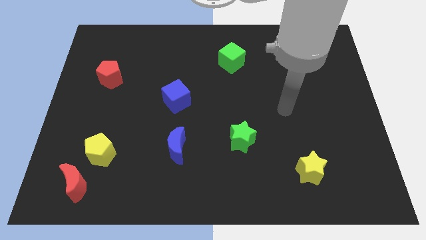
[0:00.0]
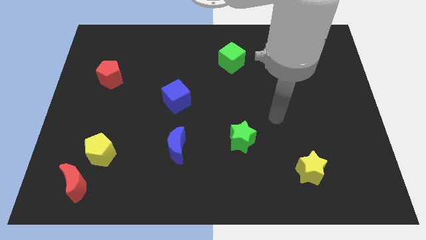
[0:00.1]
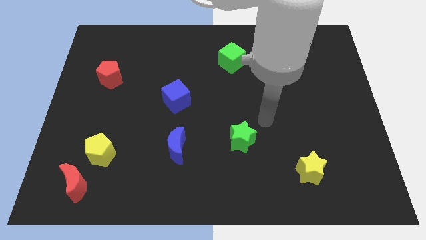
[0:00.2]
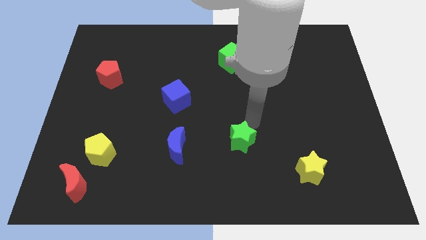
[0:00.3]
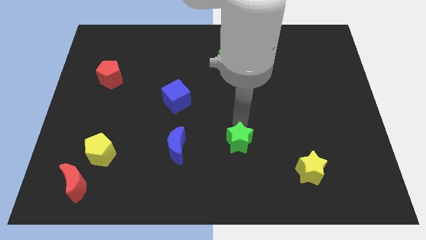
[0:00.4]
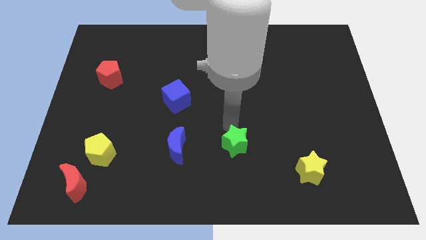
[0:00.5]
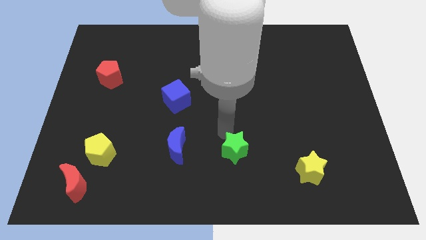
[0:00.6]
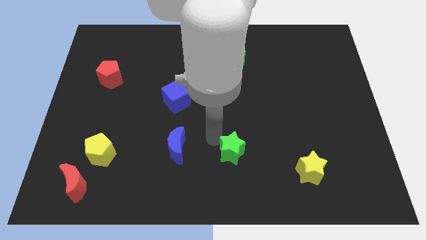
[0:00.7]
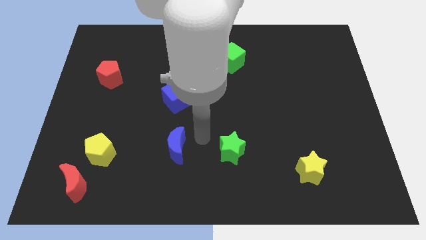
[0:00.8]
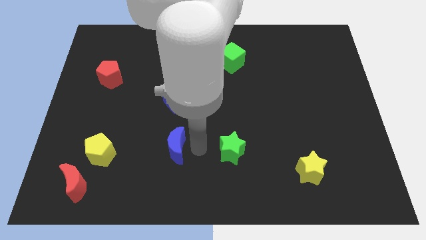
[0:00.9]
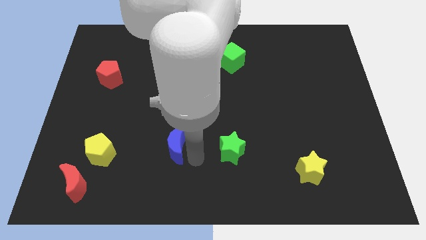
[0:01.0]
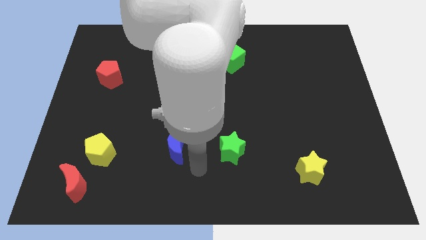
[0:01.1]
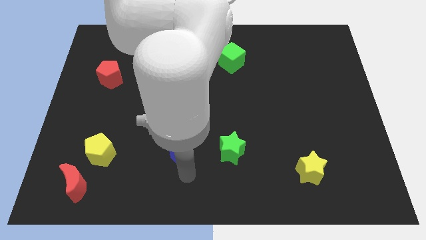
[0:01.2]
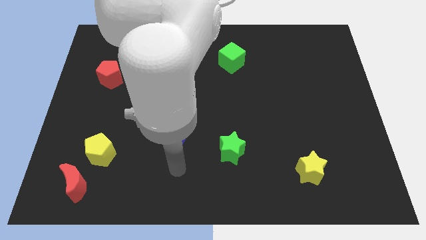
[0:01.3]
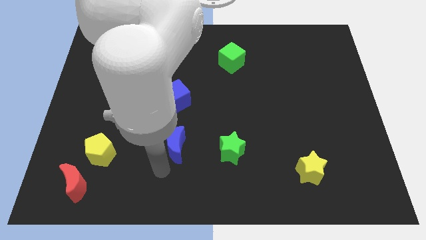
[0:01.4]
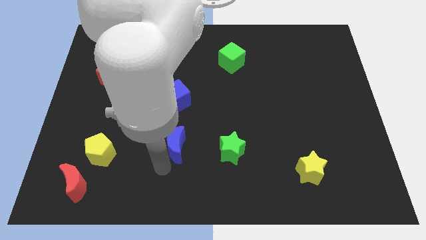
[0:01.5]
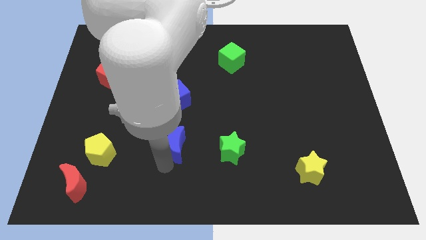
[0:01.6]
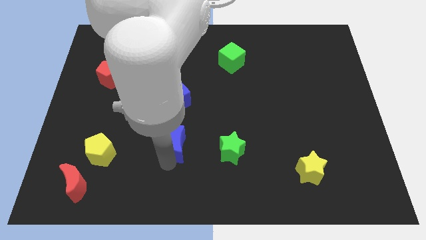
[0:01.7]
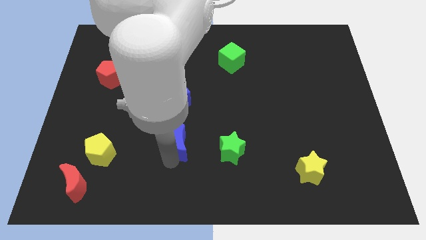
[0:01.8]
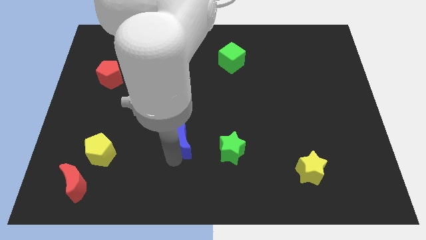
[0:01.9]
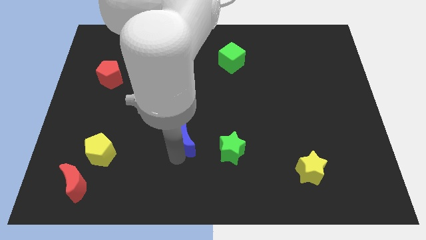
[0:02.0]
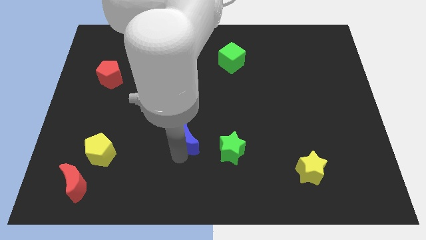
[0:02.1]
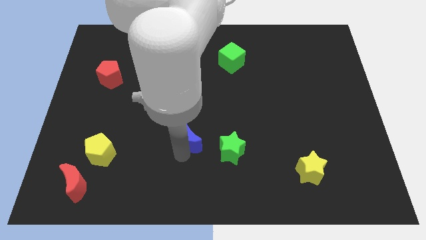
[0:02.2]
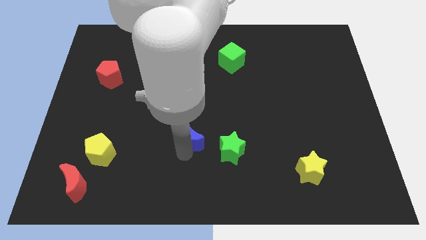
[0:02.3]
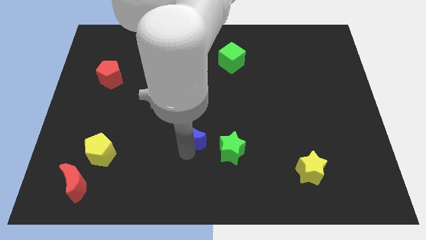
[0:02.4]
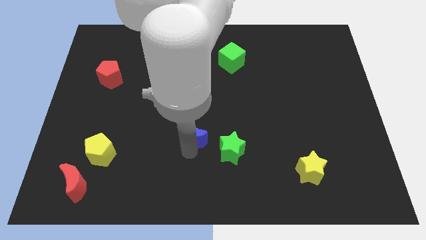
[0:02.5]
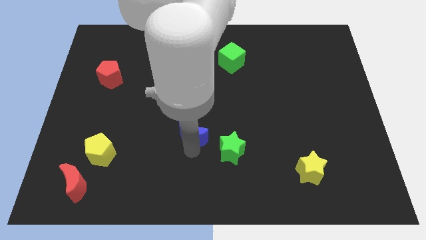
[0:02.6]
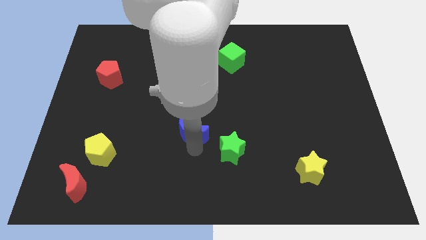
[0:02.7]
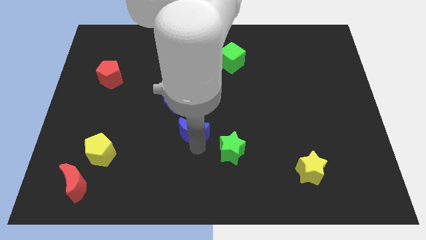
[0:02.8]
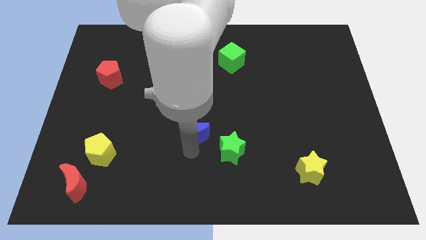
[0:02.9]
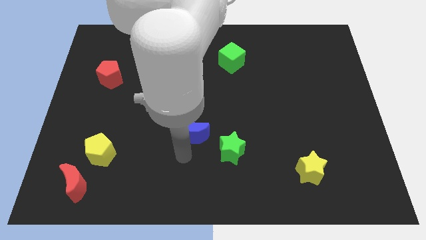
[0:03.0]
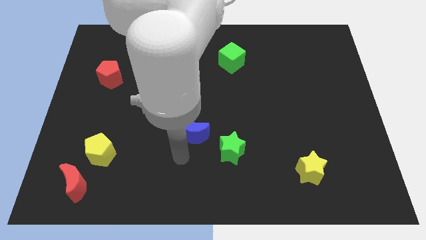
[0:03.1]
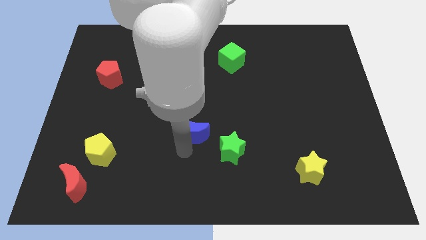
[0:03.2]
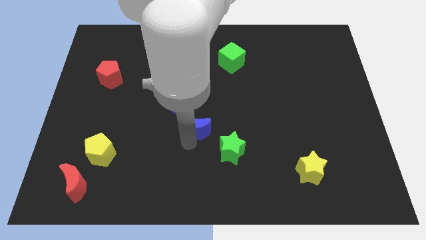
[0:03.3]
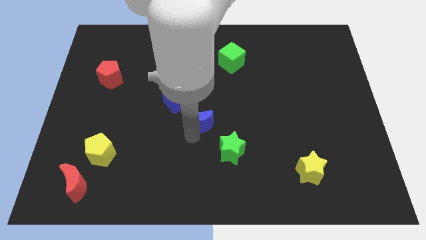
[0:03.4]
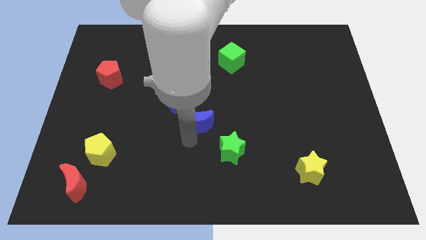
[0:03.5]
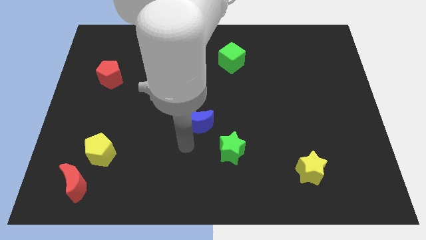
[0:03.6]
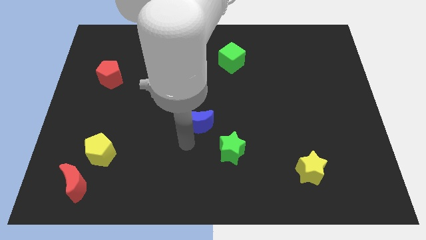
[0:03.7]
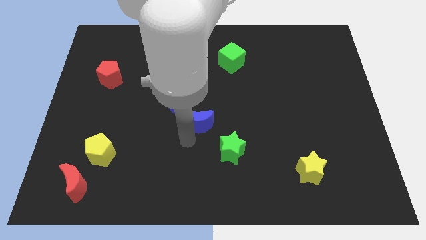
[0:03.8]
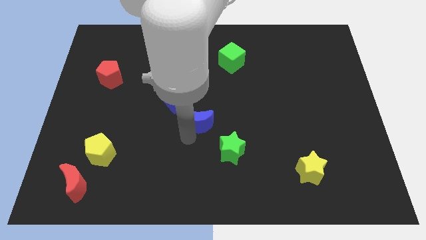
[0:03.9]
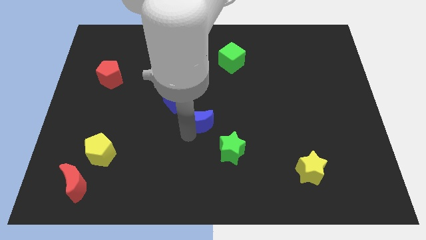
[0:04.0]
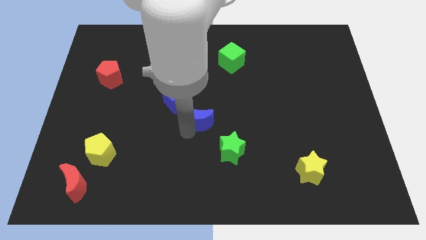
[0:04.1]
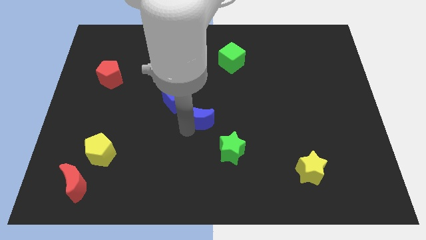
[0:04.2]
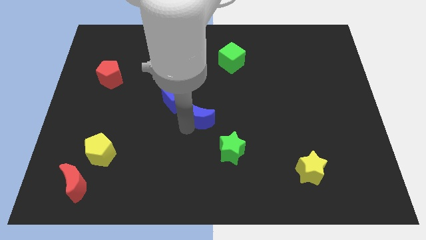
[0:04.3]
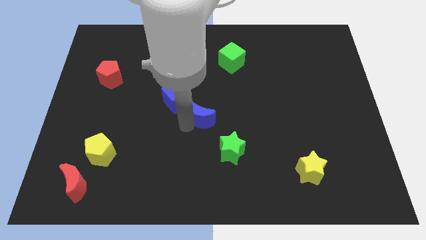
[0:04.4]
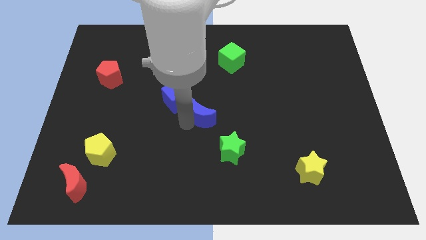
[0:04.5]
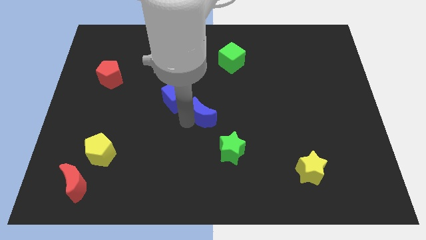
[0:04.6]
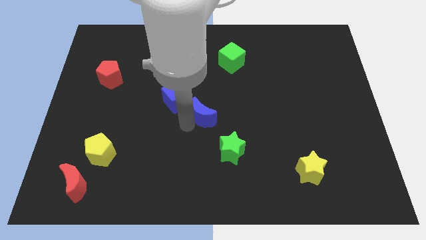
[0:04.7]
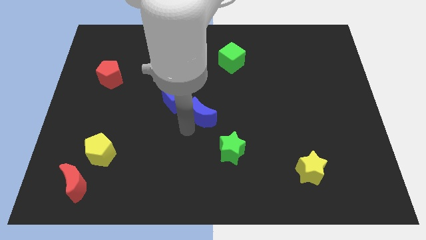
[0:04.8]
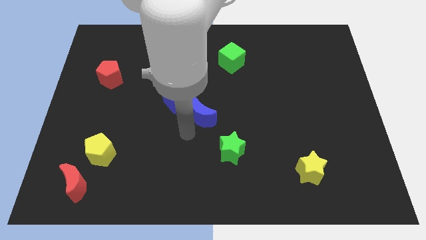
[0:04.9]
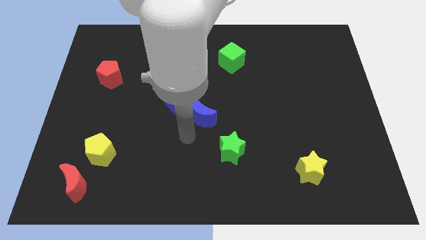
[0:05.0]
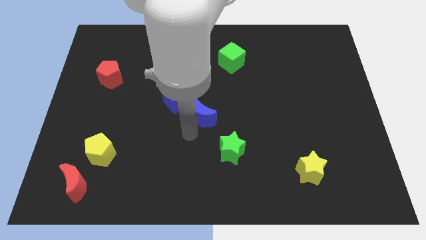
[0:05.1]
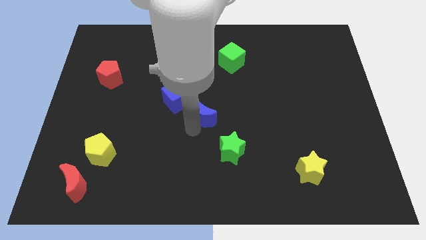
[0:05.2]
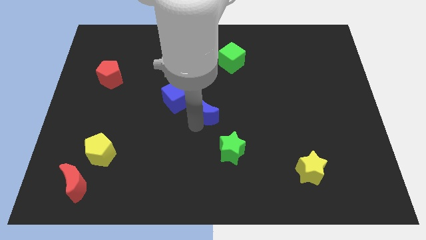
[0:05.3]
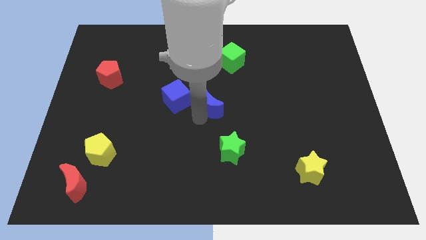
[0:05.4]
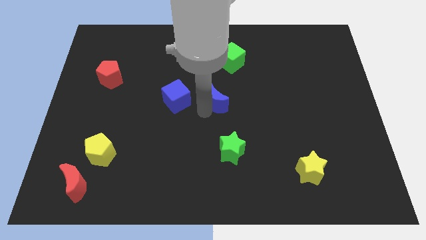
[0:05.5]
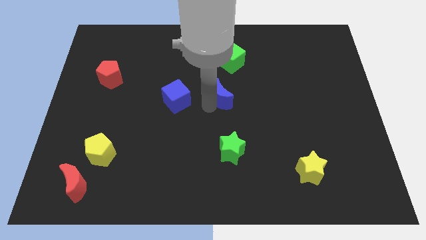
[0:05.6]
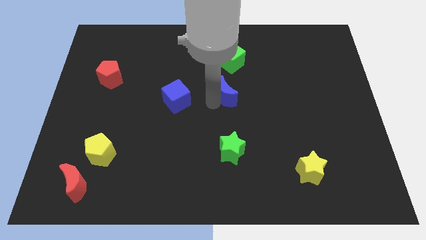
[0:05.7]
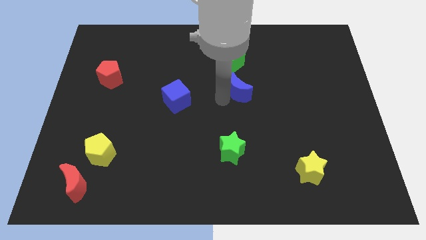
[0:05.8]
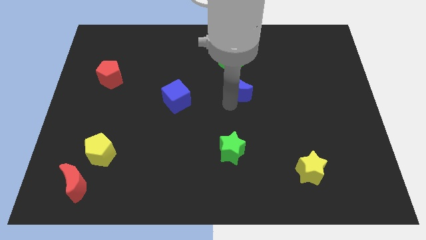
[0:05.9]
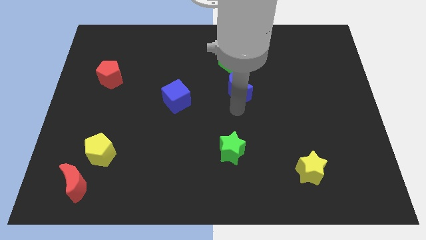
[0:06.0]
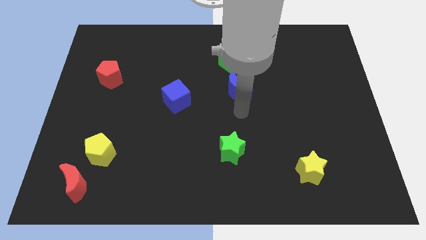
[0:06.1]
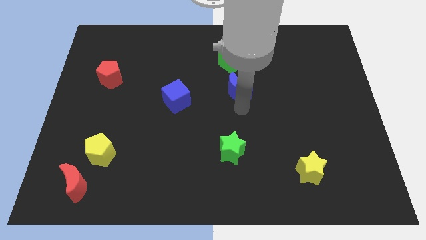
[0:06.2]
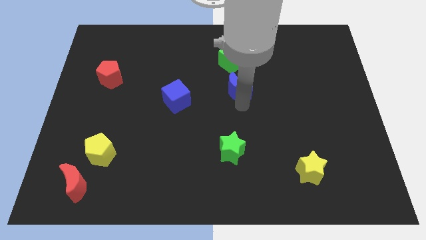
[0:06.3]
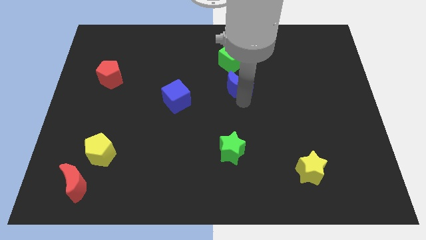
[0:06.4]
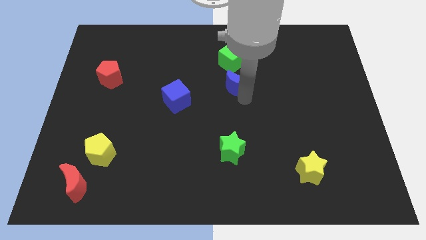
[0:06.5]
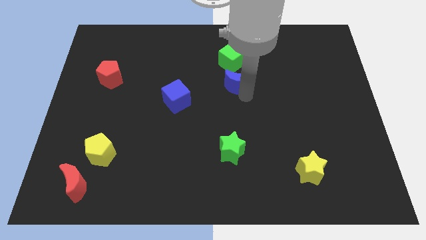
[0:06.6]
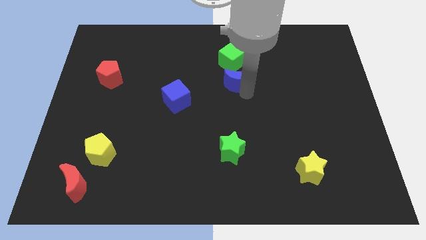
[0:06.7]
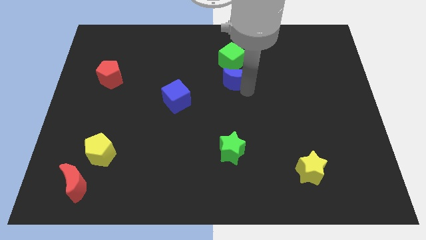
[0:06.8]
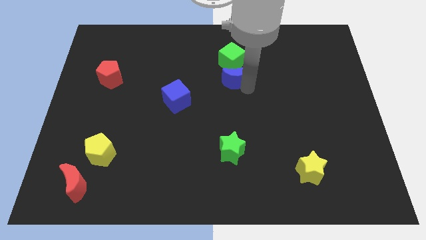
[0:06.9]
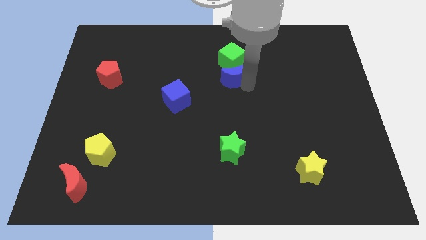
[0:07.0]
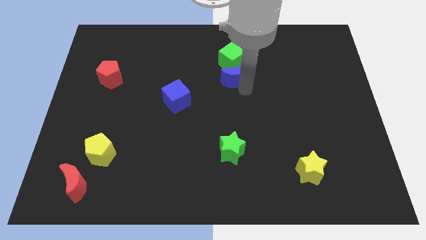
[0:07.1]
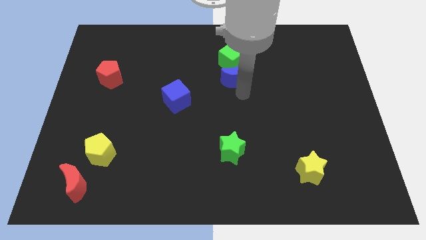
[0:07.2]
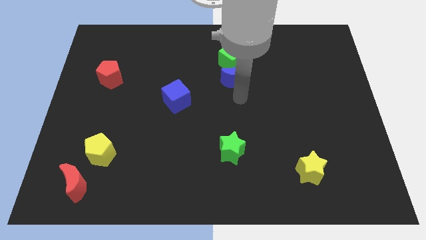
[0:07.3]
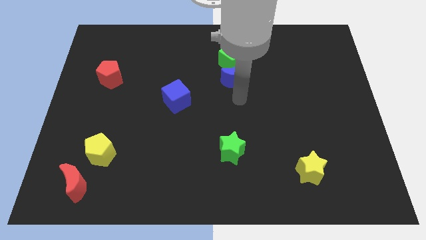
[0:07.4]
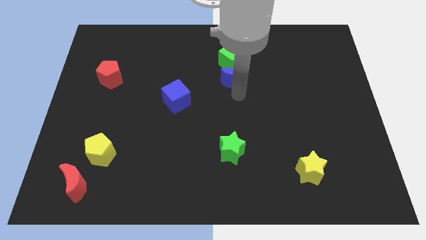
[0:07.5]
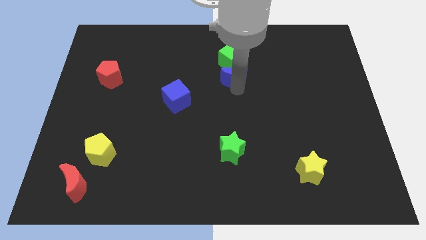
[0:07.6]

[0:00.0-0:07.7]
put the blue moon close to the green cube
